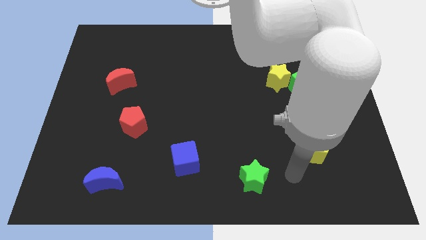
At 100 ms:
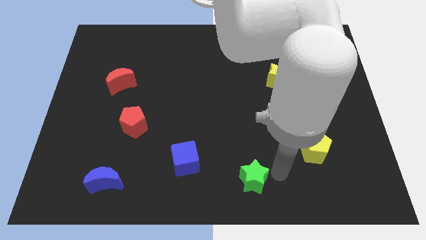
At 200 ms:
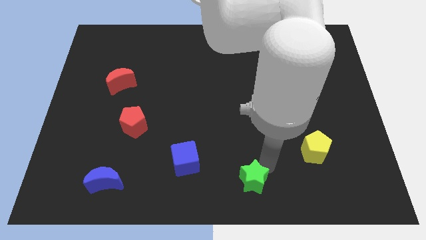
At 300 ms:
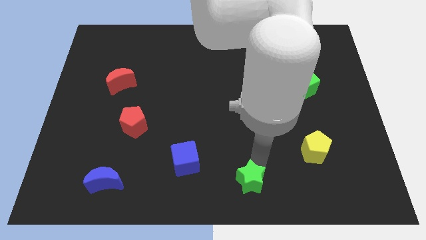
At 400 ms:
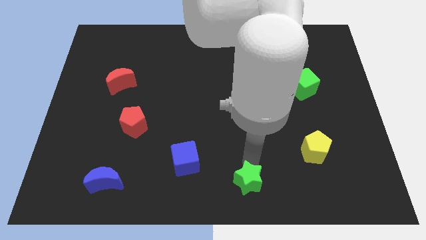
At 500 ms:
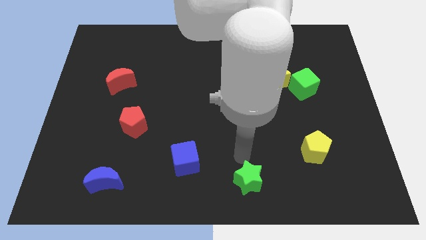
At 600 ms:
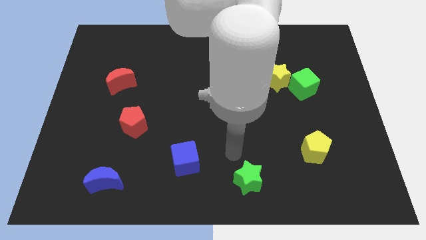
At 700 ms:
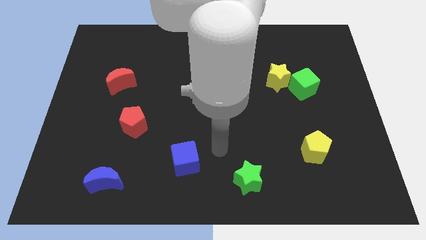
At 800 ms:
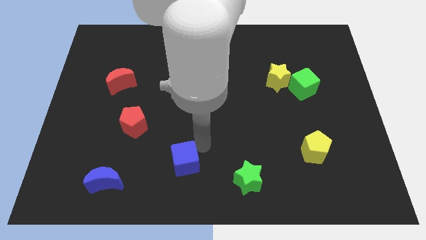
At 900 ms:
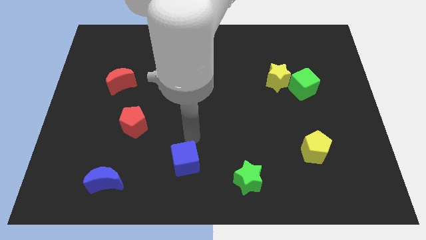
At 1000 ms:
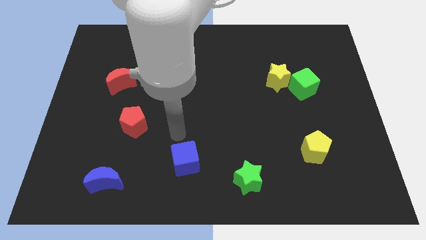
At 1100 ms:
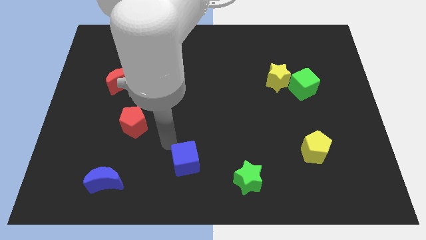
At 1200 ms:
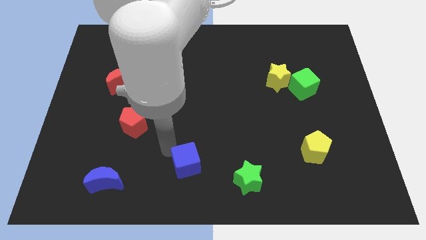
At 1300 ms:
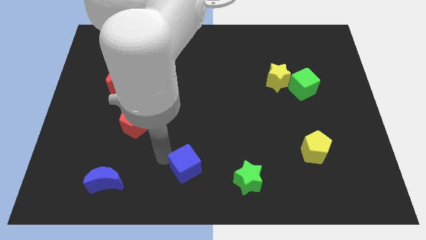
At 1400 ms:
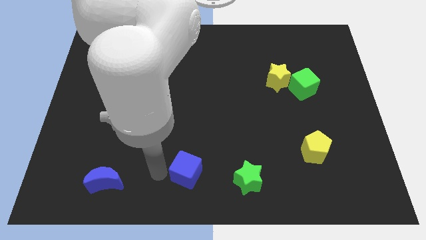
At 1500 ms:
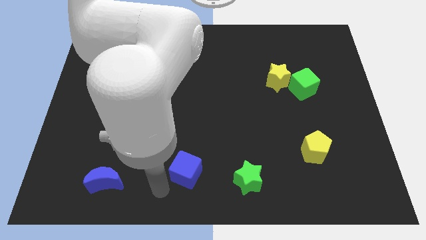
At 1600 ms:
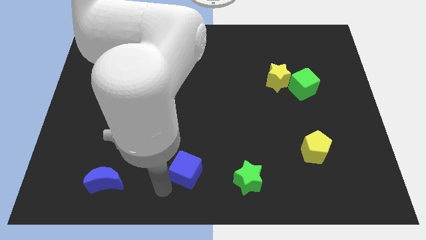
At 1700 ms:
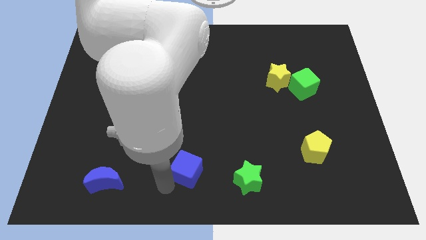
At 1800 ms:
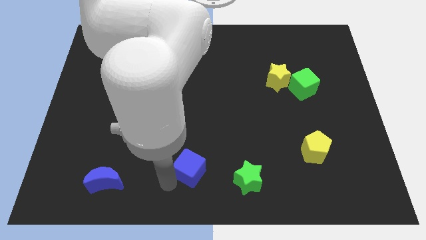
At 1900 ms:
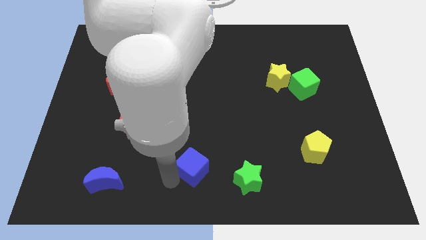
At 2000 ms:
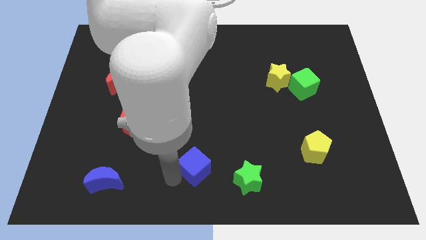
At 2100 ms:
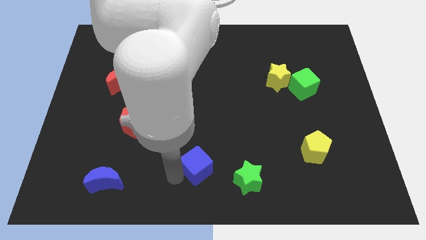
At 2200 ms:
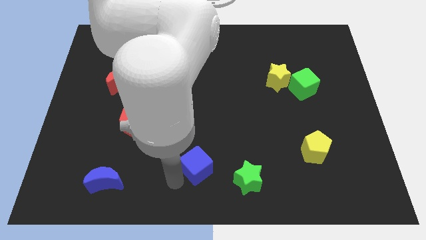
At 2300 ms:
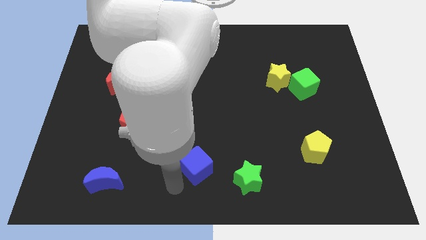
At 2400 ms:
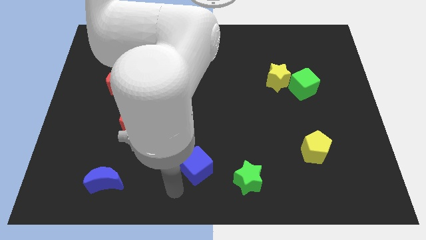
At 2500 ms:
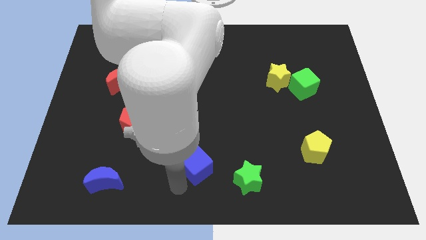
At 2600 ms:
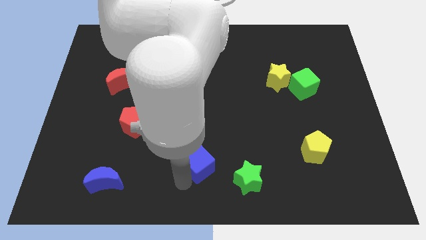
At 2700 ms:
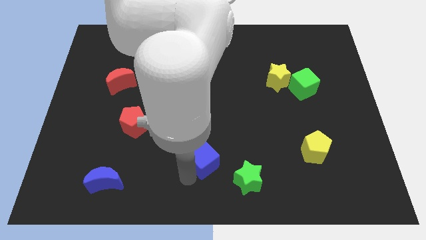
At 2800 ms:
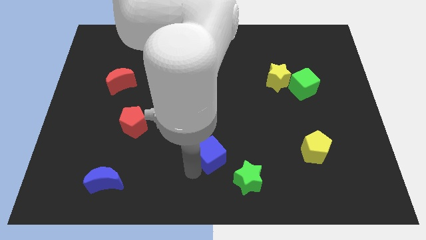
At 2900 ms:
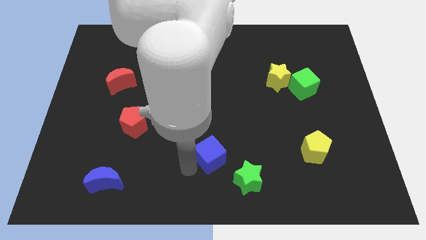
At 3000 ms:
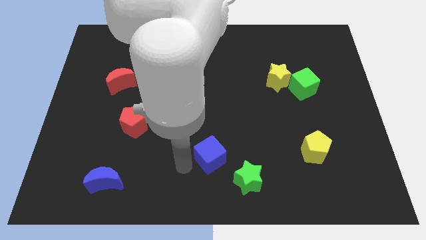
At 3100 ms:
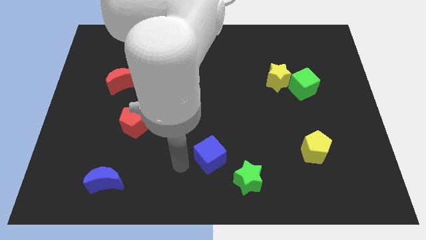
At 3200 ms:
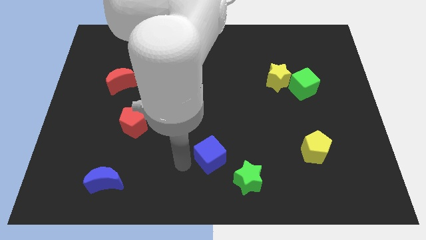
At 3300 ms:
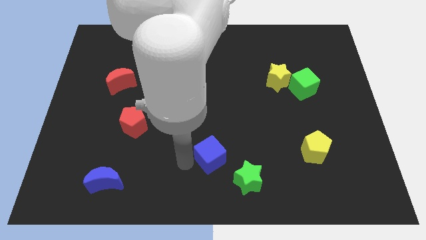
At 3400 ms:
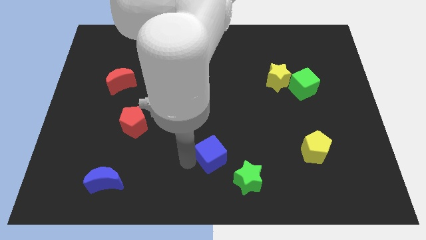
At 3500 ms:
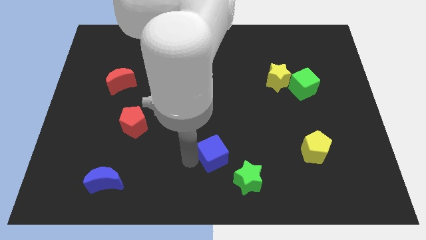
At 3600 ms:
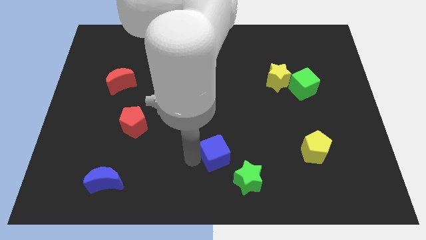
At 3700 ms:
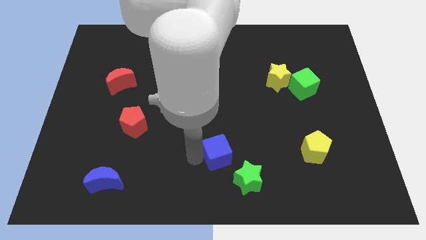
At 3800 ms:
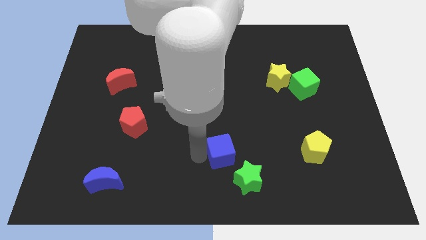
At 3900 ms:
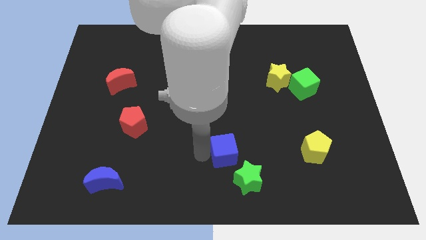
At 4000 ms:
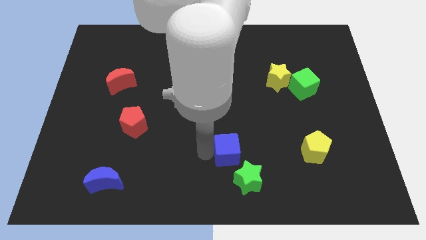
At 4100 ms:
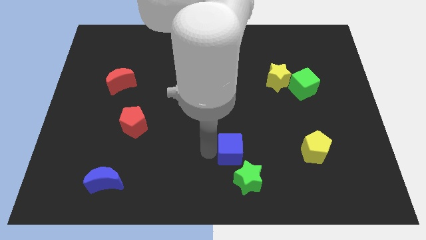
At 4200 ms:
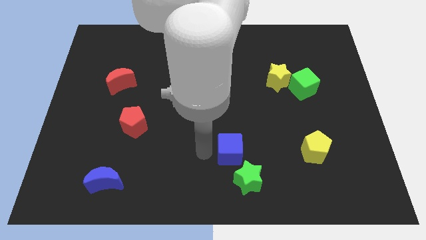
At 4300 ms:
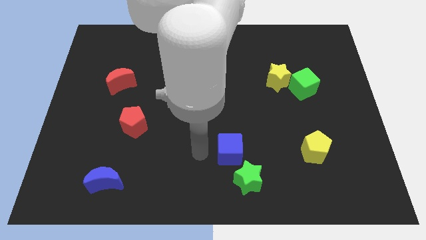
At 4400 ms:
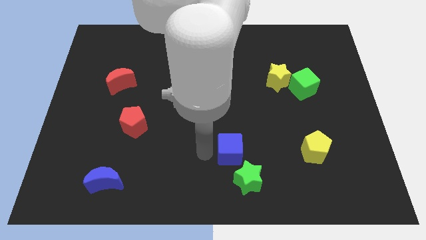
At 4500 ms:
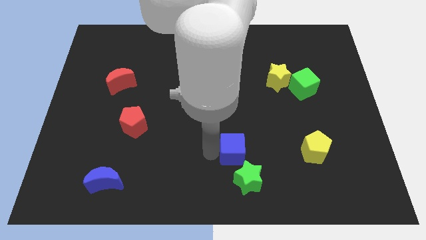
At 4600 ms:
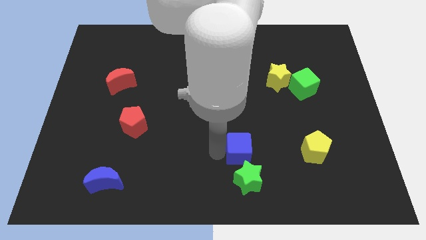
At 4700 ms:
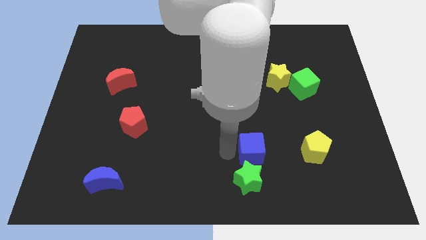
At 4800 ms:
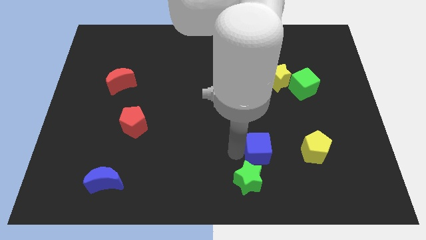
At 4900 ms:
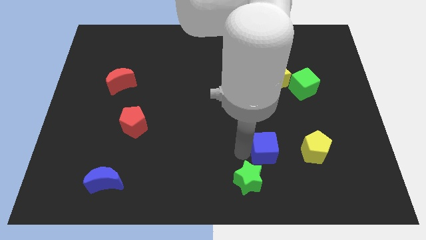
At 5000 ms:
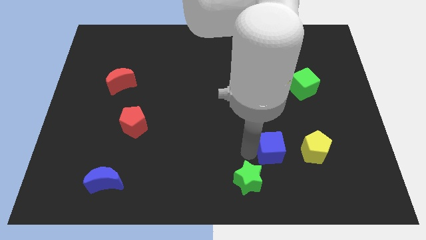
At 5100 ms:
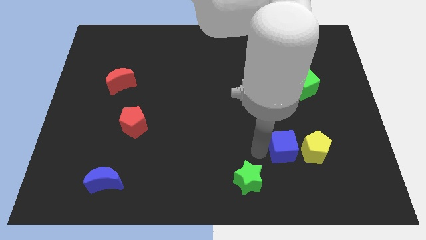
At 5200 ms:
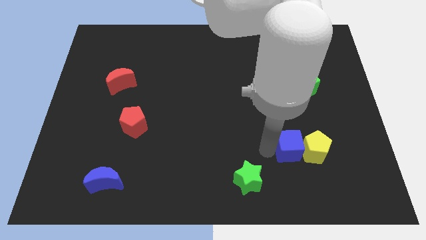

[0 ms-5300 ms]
slide the blue cube to the yellow pentagon

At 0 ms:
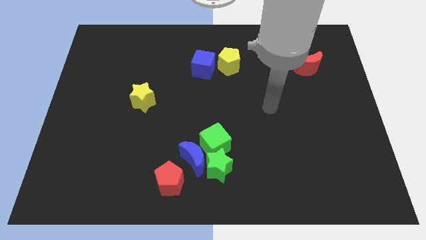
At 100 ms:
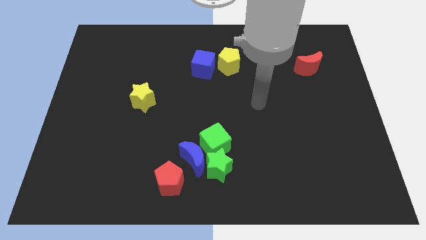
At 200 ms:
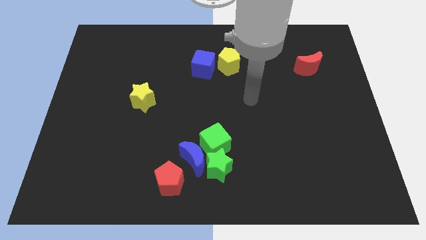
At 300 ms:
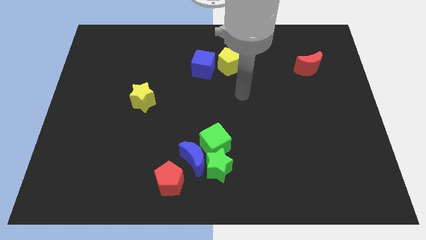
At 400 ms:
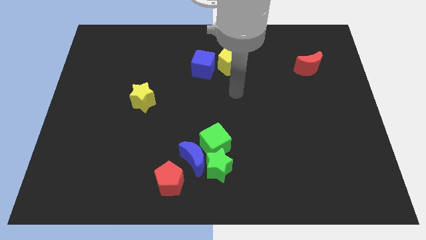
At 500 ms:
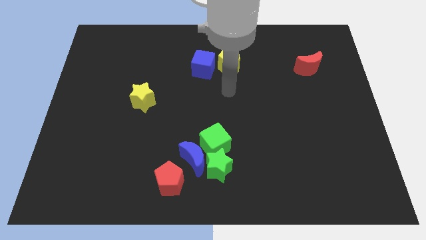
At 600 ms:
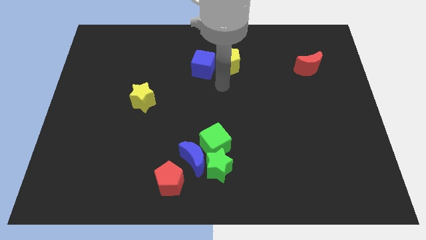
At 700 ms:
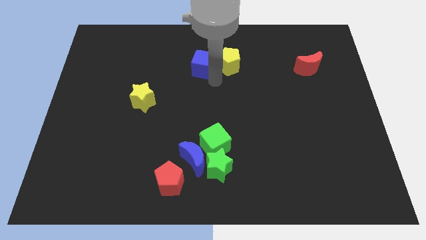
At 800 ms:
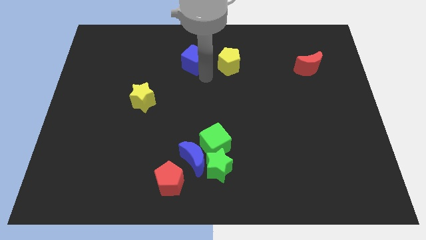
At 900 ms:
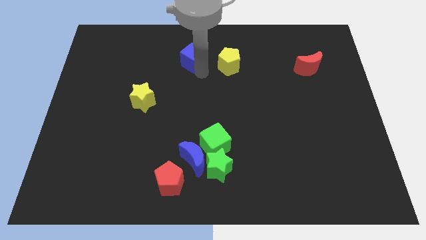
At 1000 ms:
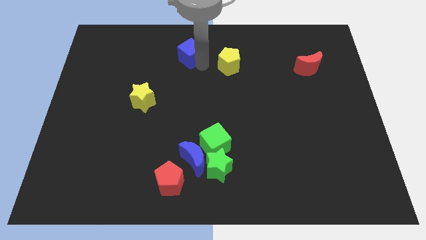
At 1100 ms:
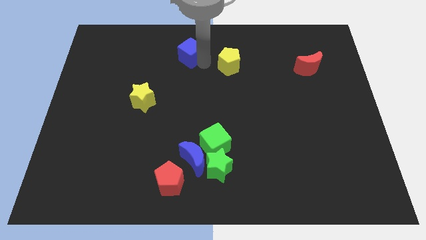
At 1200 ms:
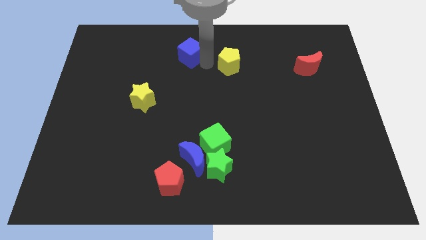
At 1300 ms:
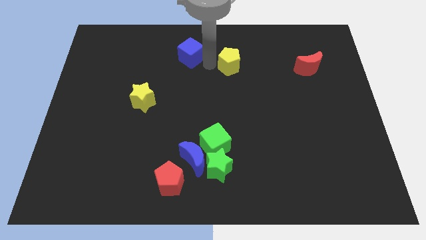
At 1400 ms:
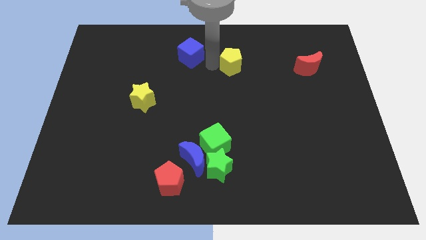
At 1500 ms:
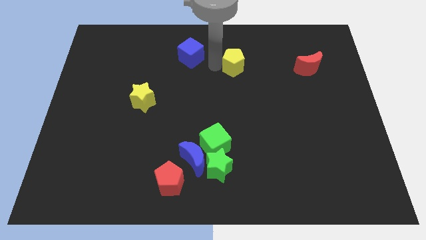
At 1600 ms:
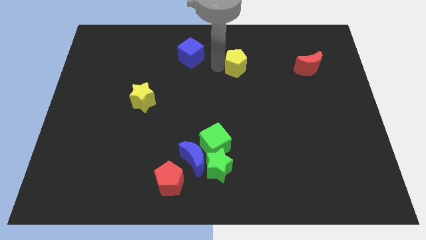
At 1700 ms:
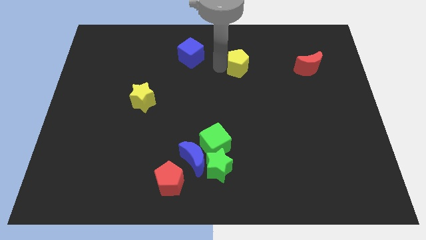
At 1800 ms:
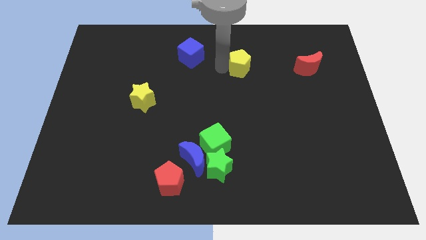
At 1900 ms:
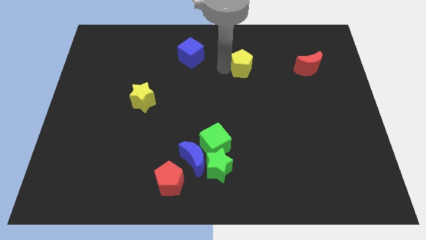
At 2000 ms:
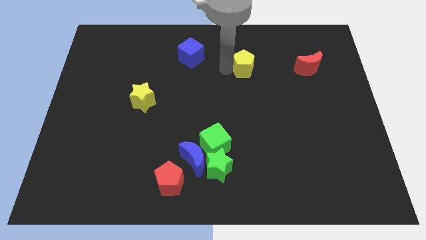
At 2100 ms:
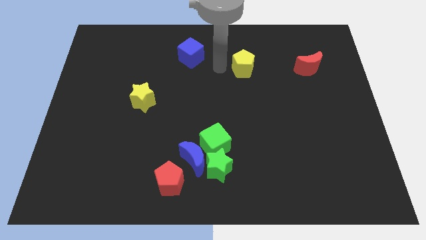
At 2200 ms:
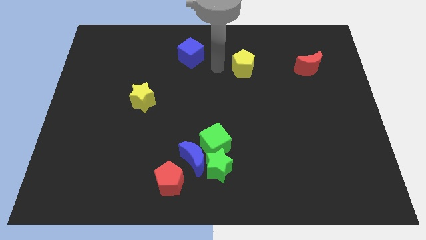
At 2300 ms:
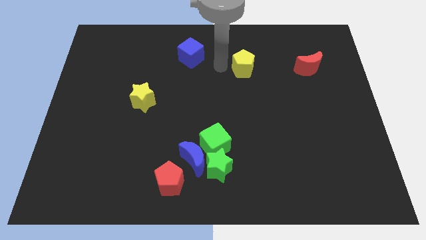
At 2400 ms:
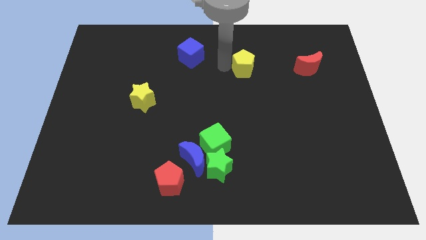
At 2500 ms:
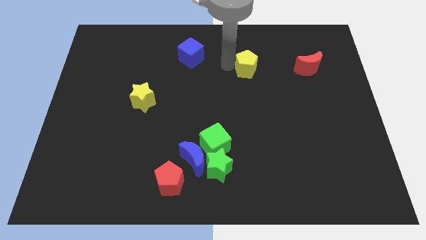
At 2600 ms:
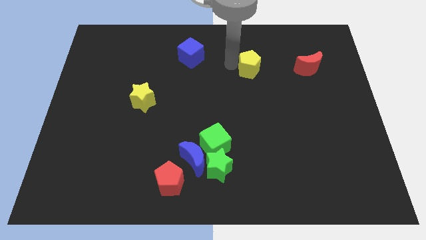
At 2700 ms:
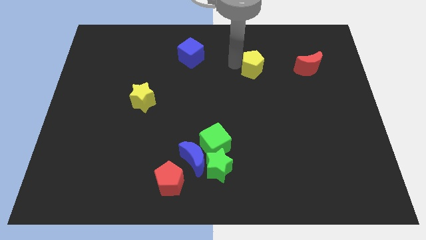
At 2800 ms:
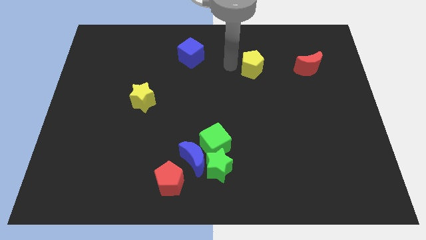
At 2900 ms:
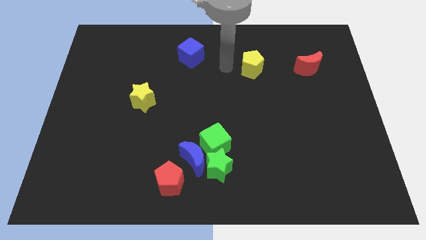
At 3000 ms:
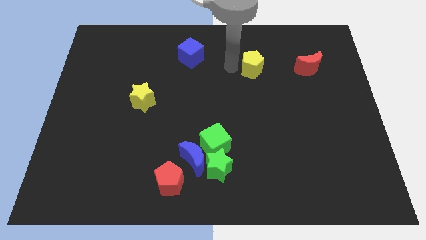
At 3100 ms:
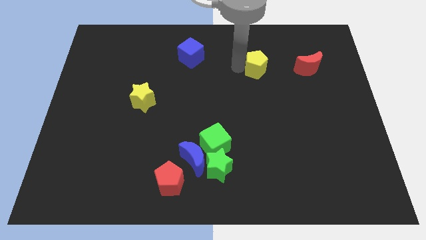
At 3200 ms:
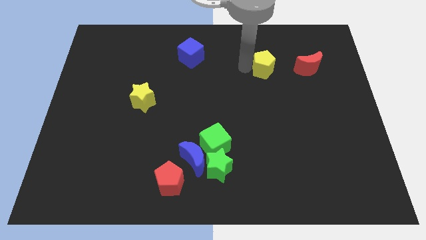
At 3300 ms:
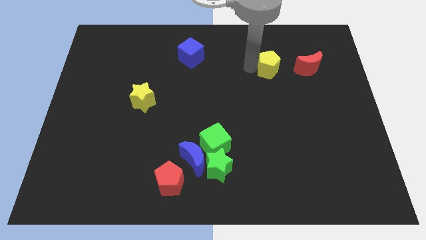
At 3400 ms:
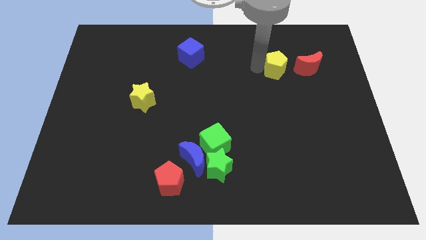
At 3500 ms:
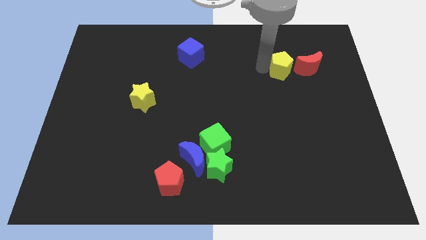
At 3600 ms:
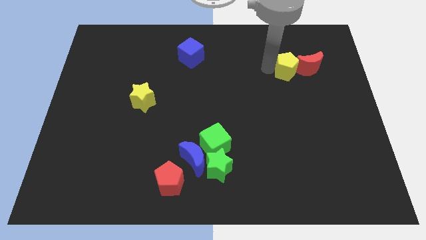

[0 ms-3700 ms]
push the yellow pentagon close to the red moon
